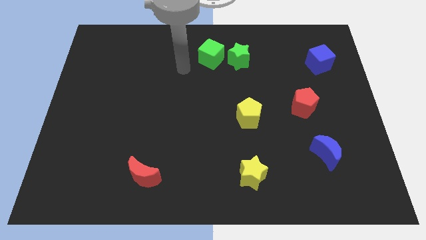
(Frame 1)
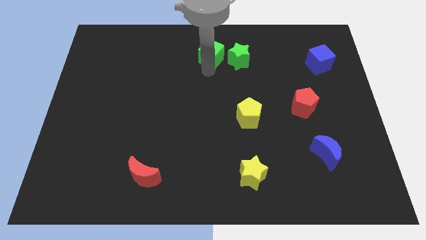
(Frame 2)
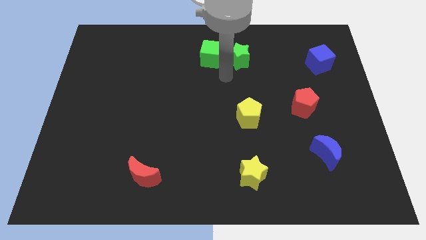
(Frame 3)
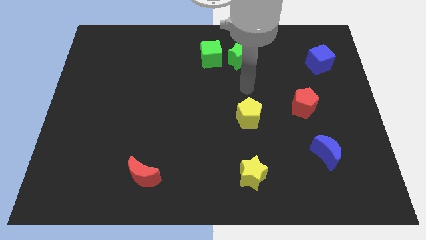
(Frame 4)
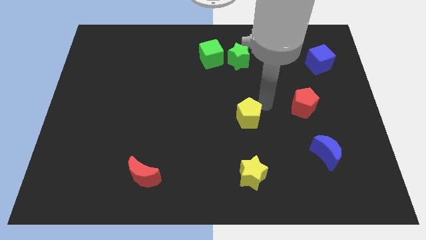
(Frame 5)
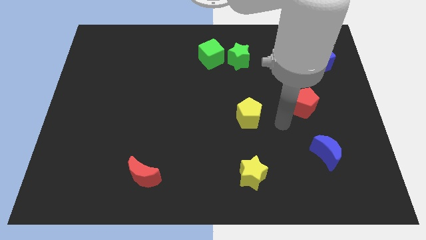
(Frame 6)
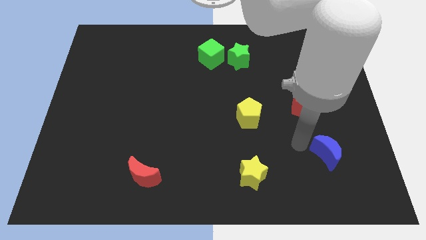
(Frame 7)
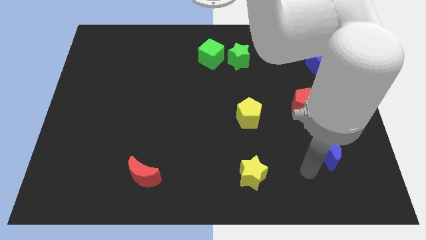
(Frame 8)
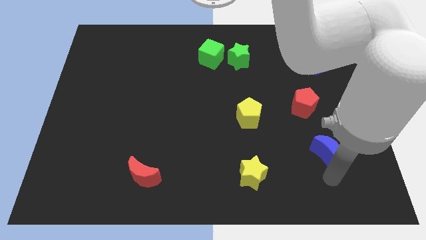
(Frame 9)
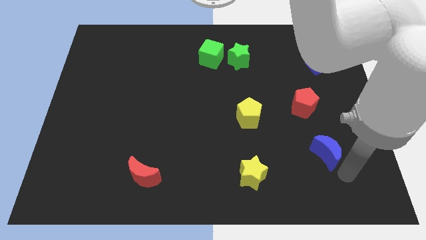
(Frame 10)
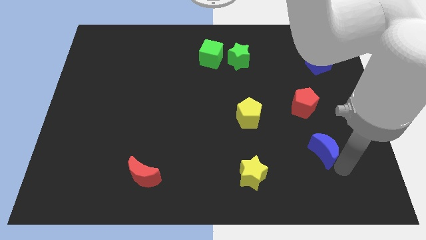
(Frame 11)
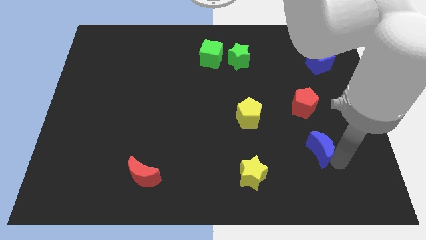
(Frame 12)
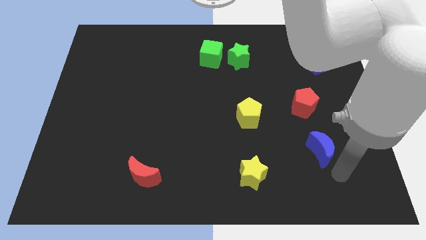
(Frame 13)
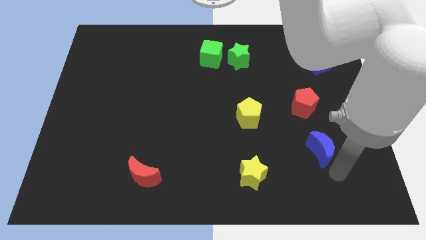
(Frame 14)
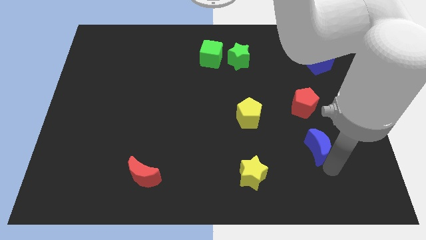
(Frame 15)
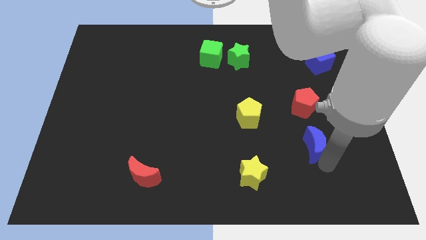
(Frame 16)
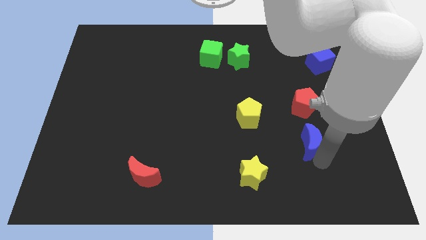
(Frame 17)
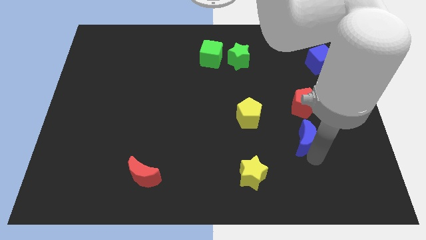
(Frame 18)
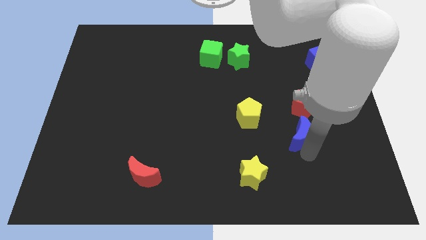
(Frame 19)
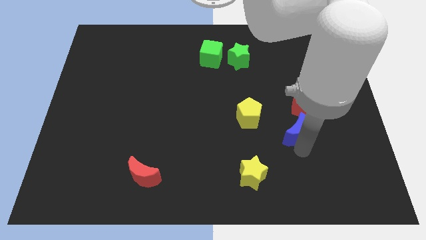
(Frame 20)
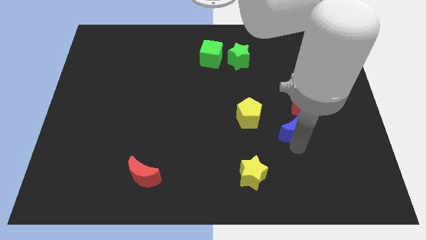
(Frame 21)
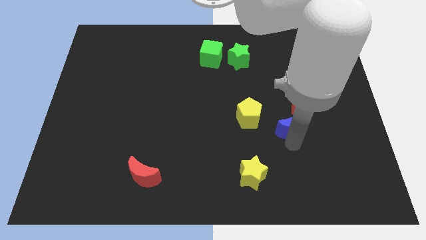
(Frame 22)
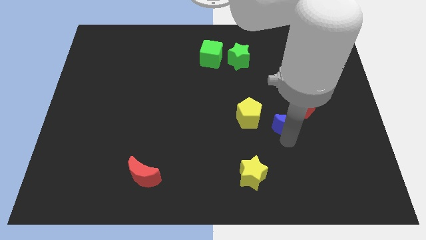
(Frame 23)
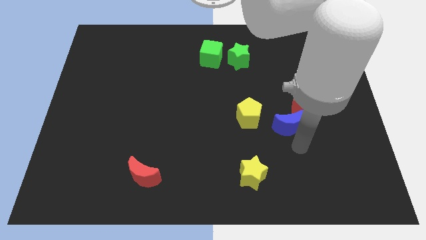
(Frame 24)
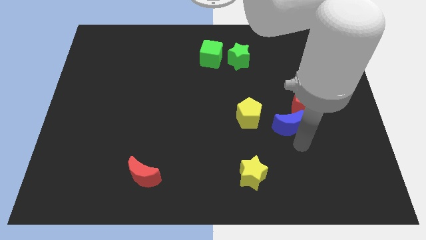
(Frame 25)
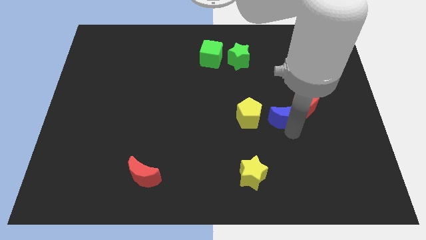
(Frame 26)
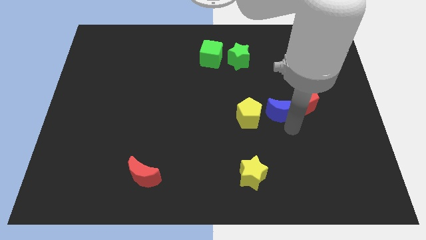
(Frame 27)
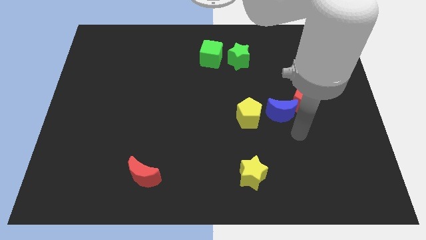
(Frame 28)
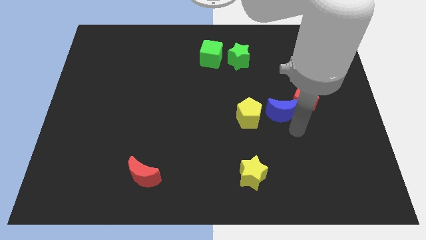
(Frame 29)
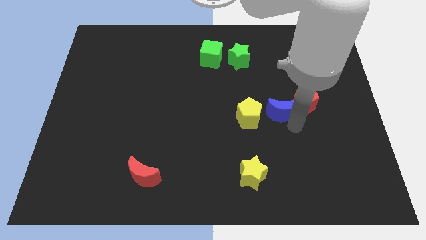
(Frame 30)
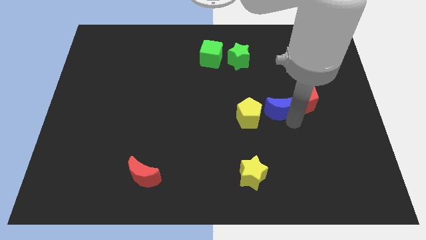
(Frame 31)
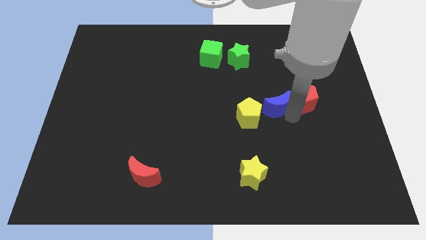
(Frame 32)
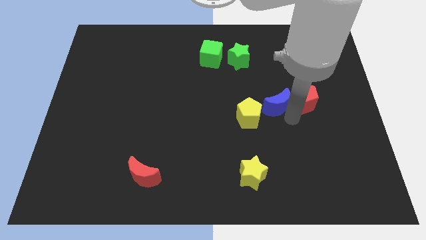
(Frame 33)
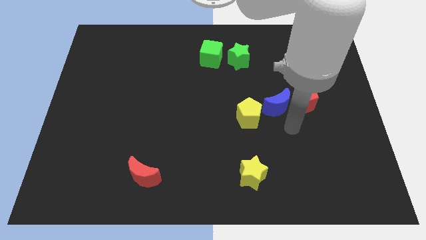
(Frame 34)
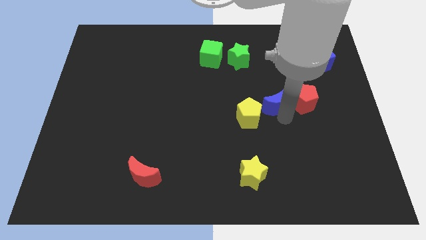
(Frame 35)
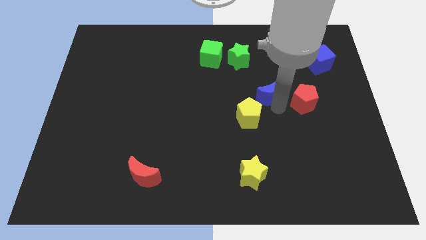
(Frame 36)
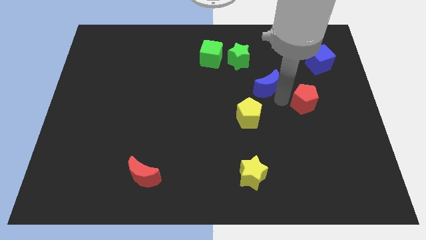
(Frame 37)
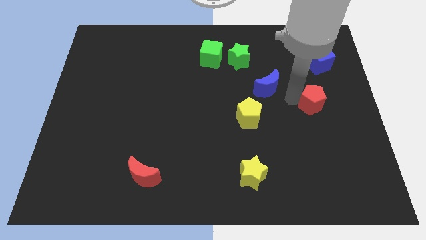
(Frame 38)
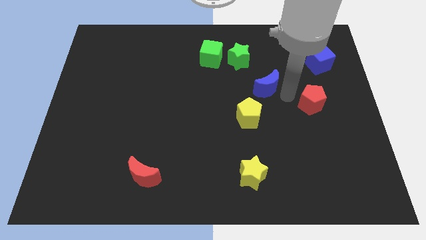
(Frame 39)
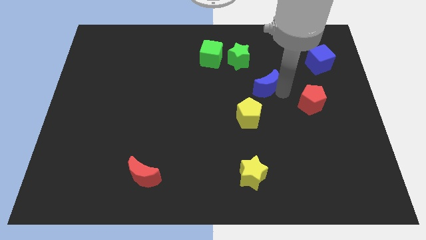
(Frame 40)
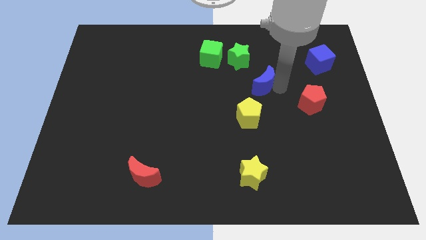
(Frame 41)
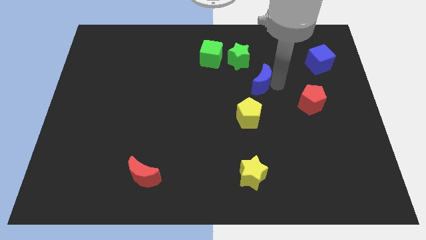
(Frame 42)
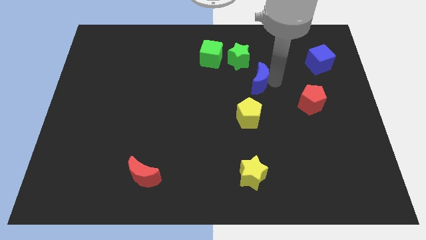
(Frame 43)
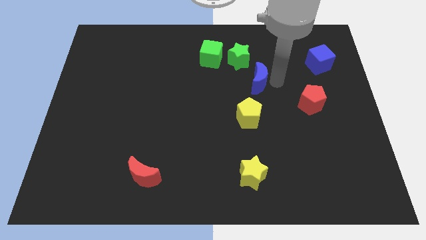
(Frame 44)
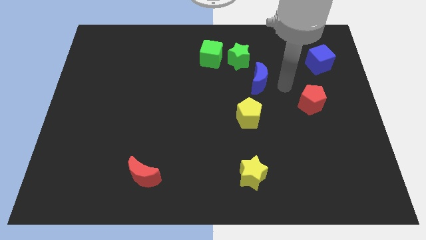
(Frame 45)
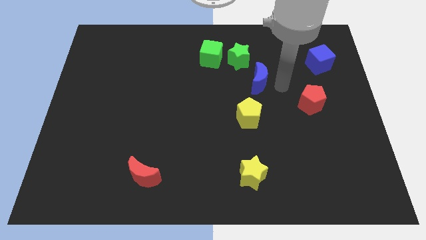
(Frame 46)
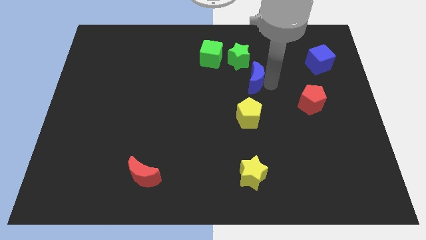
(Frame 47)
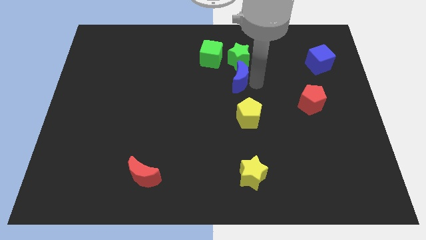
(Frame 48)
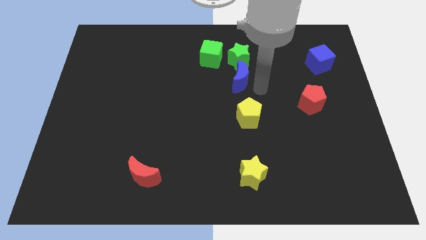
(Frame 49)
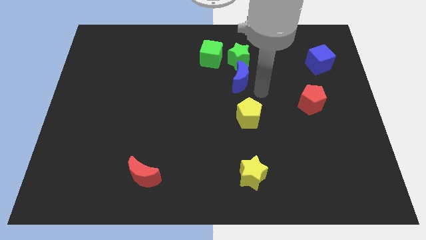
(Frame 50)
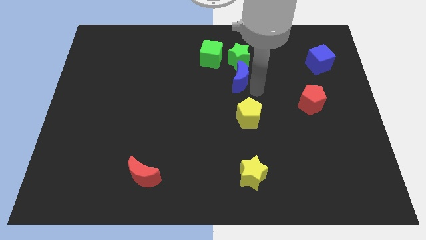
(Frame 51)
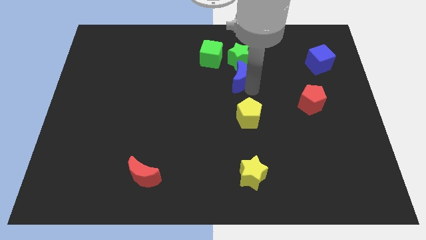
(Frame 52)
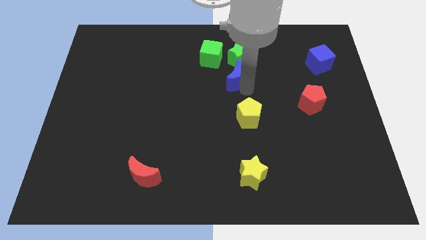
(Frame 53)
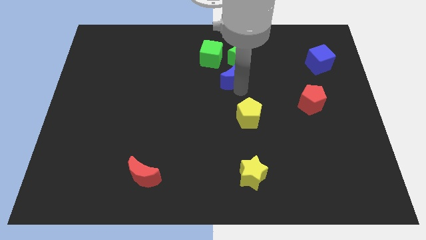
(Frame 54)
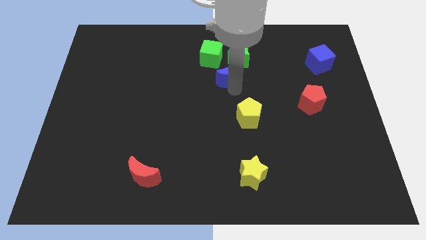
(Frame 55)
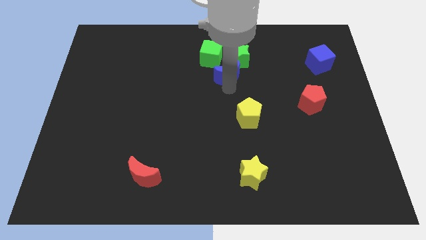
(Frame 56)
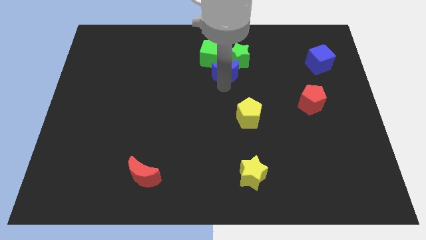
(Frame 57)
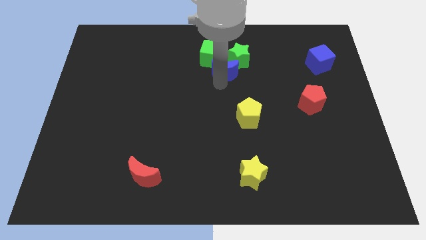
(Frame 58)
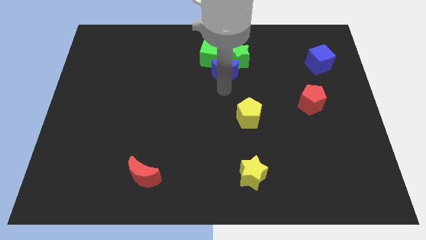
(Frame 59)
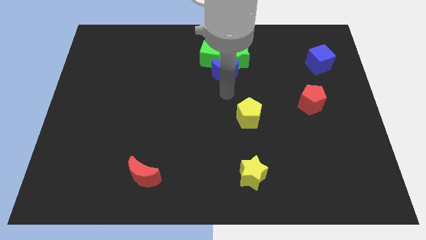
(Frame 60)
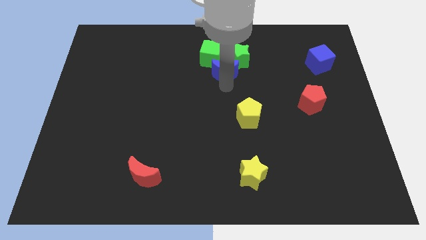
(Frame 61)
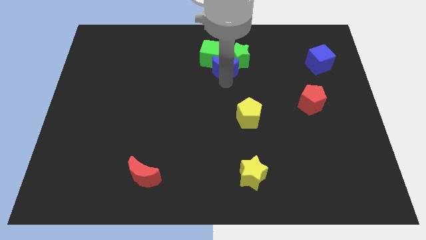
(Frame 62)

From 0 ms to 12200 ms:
push the blue moon next to the green cube

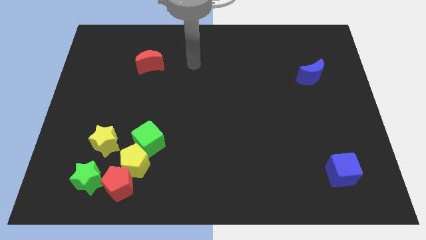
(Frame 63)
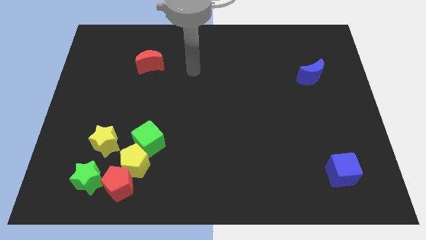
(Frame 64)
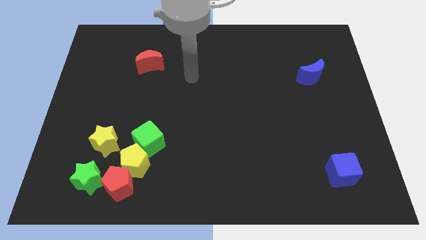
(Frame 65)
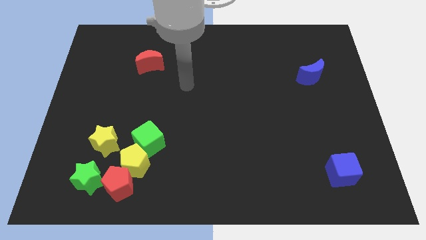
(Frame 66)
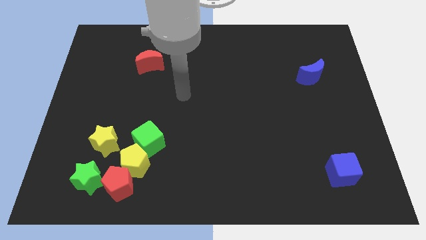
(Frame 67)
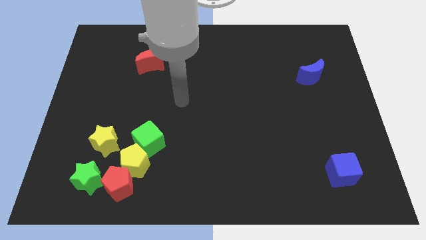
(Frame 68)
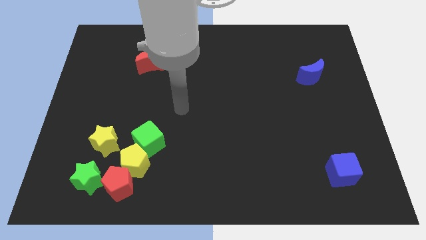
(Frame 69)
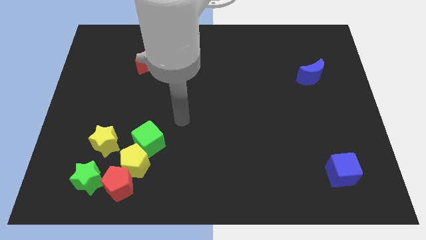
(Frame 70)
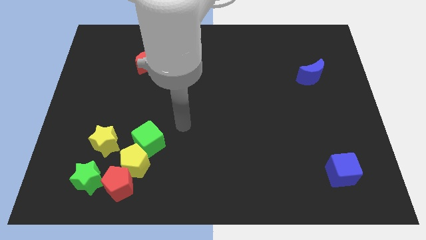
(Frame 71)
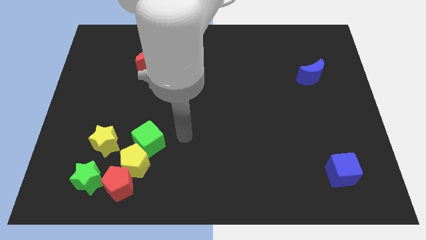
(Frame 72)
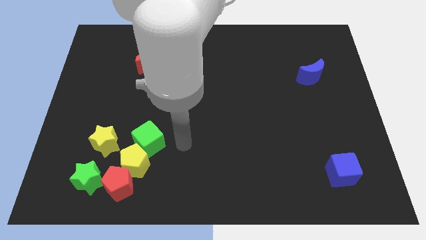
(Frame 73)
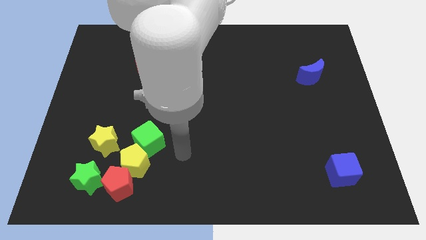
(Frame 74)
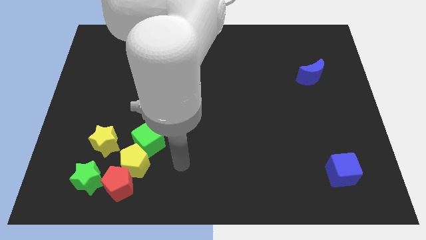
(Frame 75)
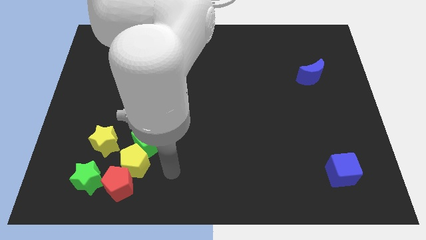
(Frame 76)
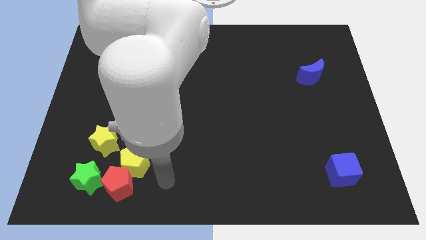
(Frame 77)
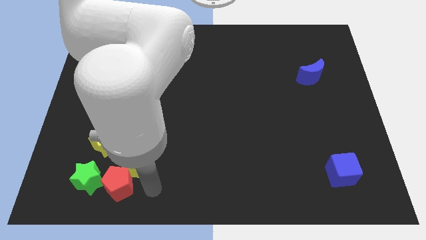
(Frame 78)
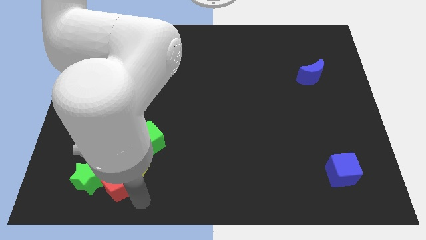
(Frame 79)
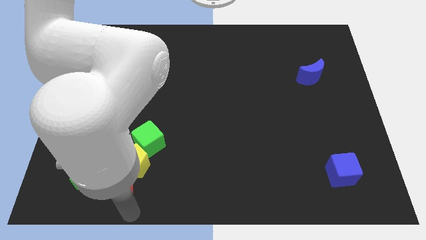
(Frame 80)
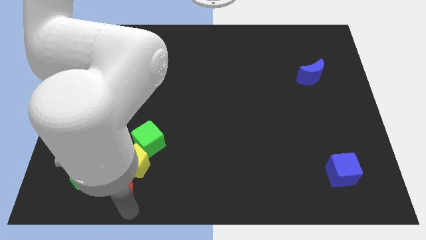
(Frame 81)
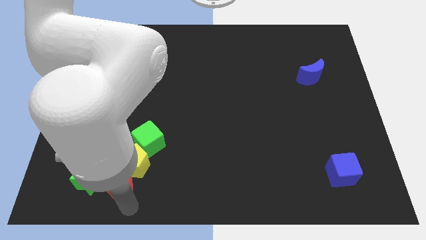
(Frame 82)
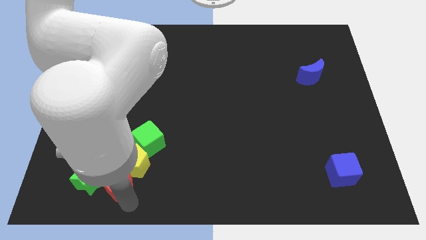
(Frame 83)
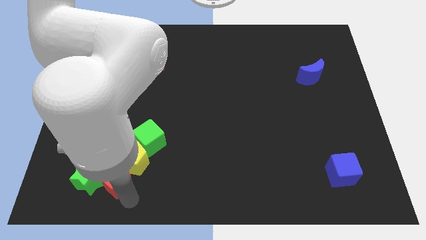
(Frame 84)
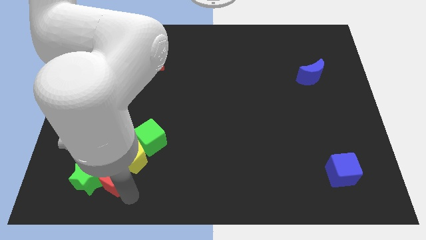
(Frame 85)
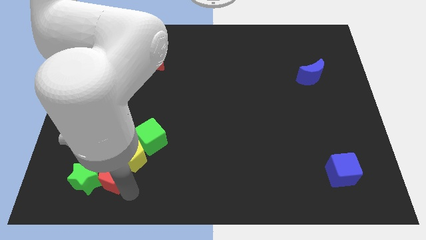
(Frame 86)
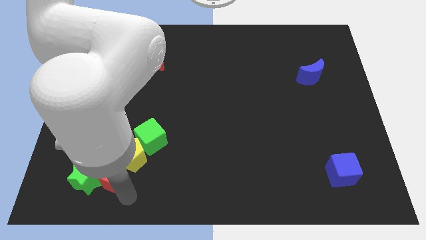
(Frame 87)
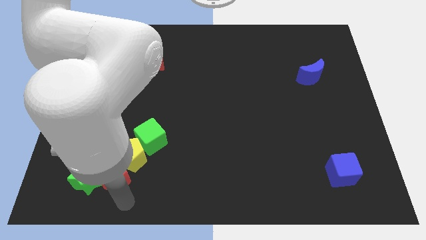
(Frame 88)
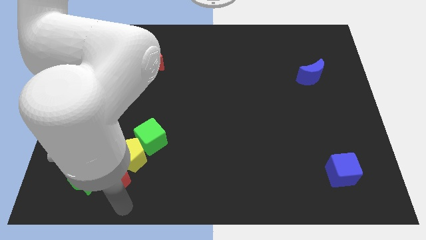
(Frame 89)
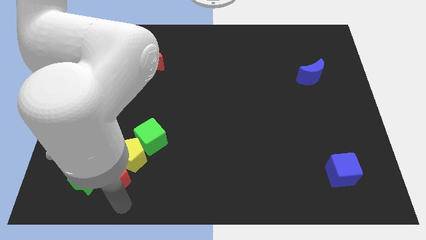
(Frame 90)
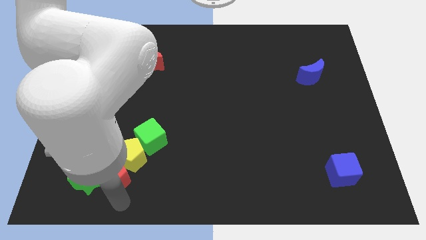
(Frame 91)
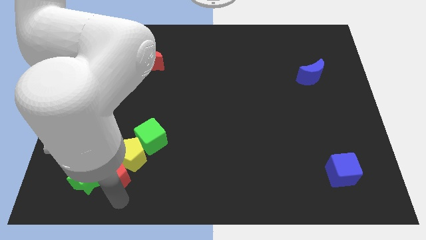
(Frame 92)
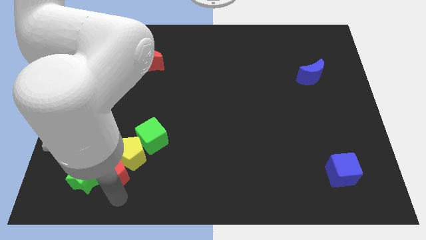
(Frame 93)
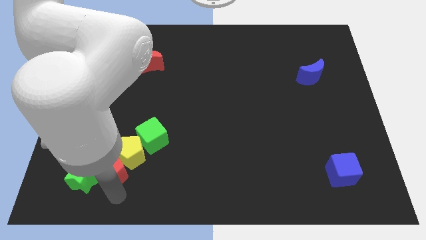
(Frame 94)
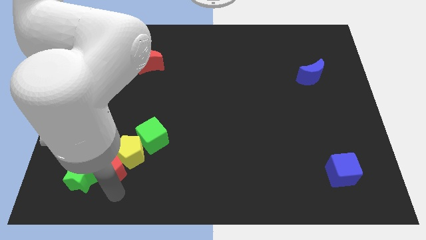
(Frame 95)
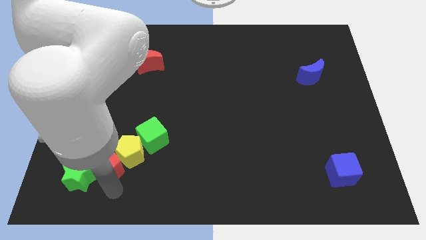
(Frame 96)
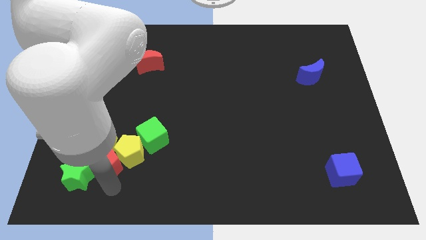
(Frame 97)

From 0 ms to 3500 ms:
put the red pentagon towards the yellow star
